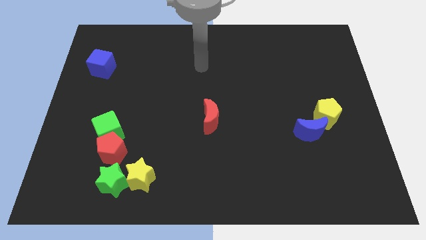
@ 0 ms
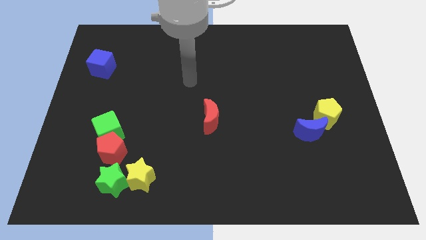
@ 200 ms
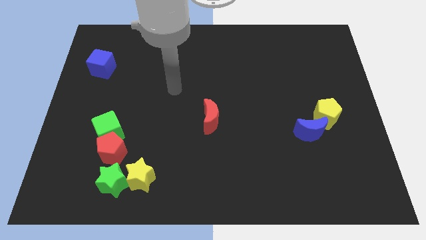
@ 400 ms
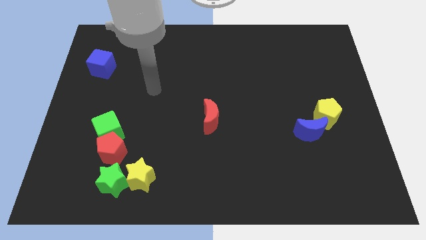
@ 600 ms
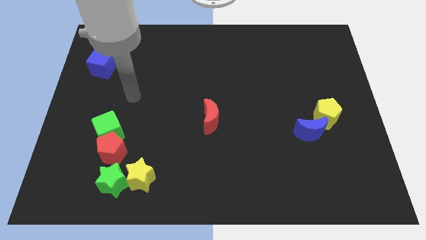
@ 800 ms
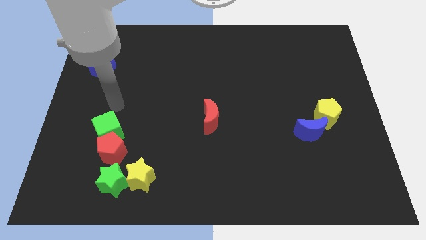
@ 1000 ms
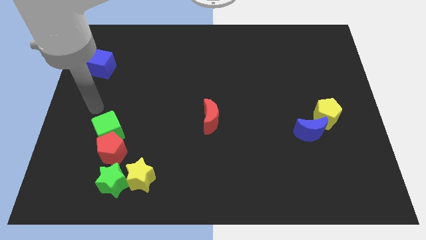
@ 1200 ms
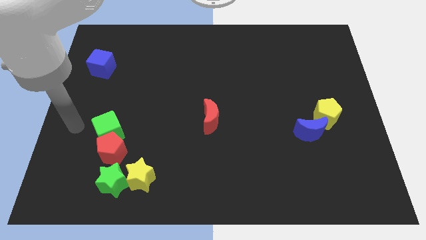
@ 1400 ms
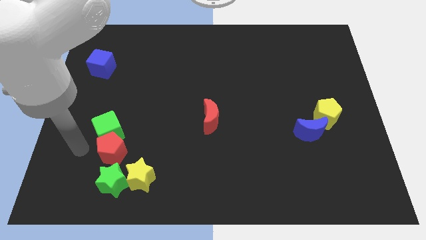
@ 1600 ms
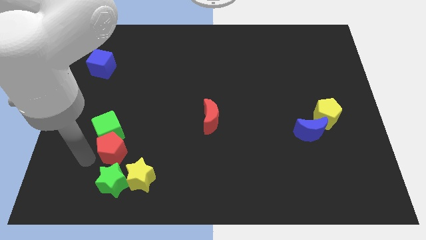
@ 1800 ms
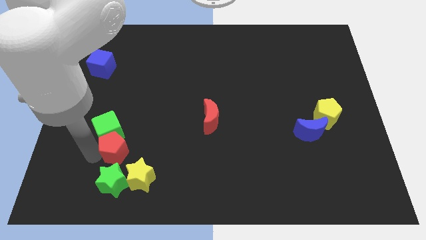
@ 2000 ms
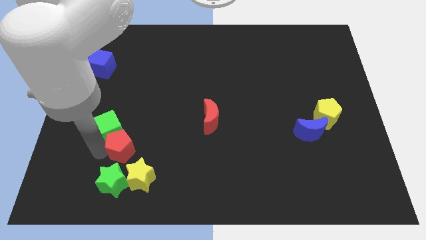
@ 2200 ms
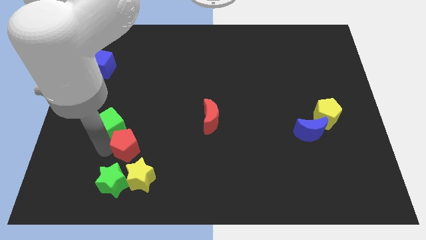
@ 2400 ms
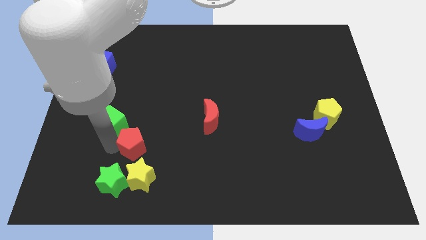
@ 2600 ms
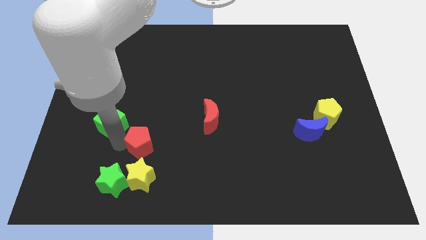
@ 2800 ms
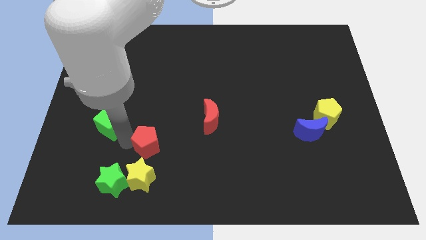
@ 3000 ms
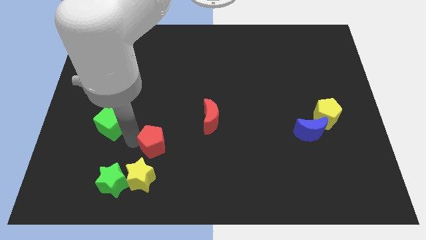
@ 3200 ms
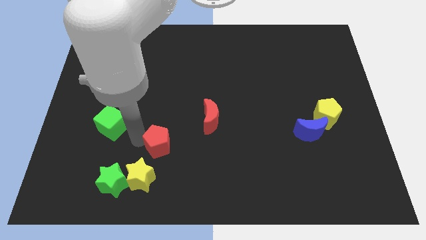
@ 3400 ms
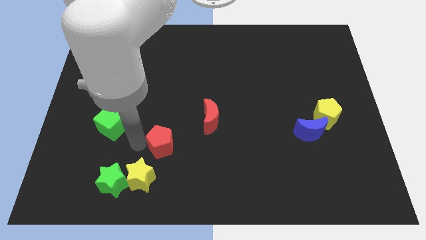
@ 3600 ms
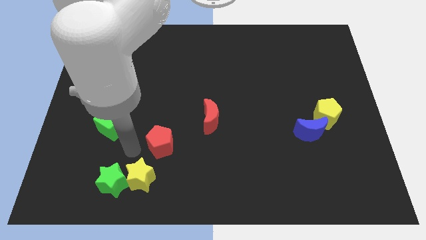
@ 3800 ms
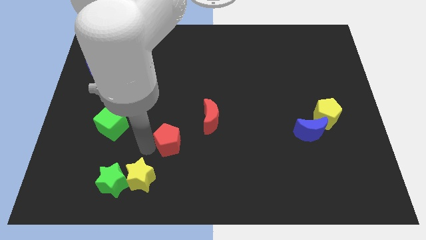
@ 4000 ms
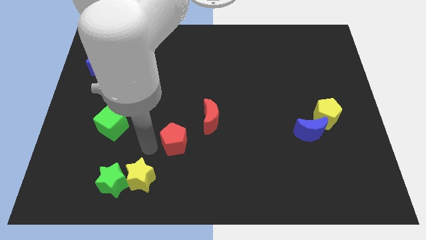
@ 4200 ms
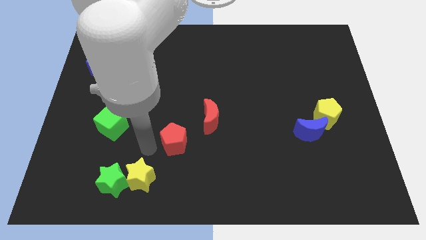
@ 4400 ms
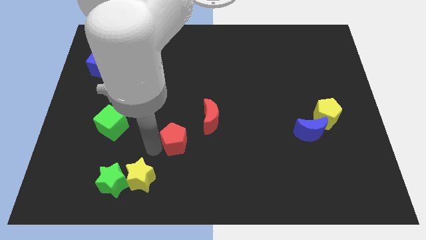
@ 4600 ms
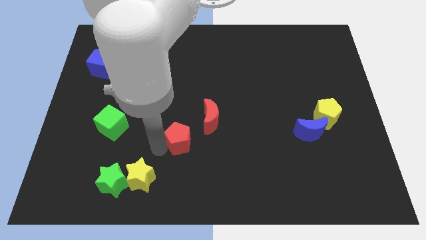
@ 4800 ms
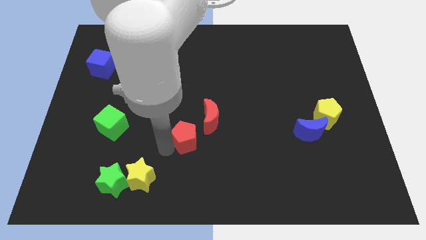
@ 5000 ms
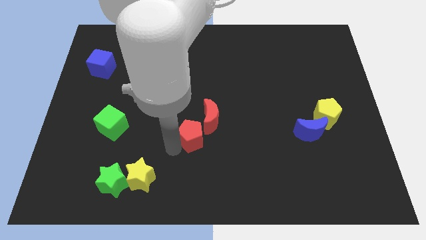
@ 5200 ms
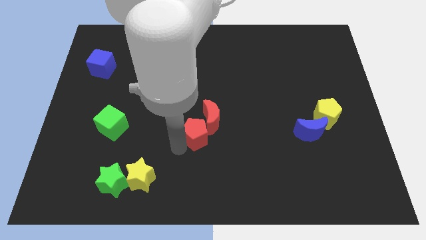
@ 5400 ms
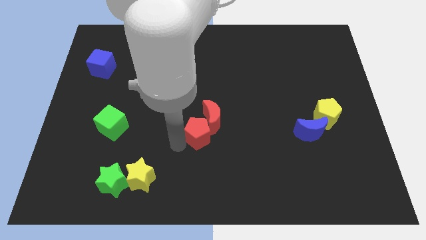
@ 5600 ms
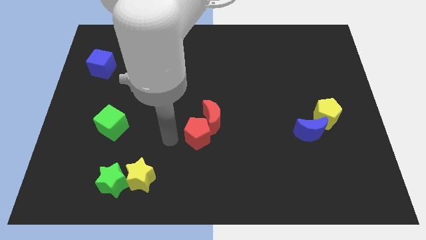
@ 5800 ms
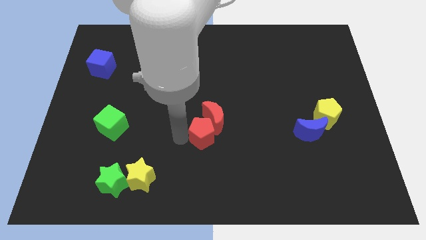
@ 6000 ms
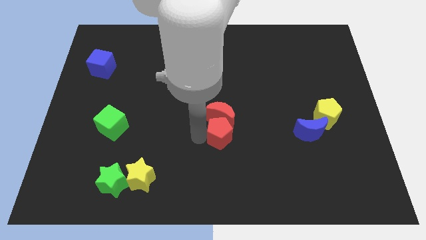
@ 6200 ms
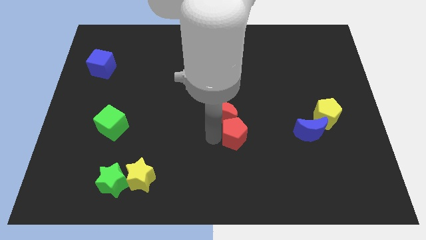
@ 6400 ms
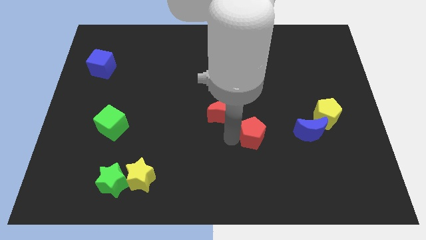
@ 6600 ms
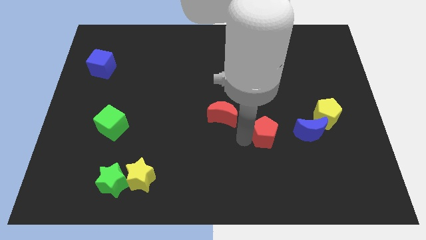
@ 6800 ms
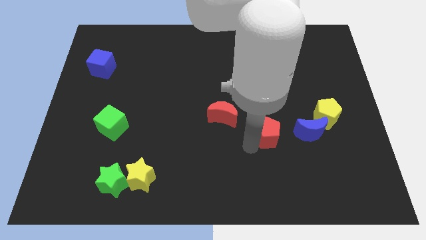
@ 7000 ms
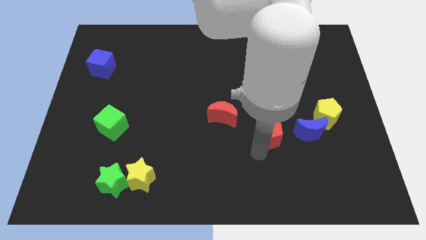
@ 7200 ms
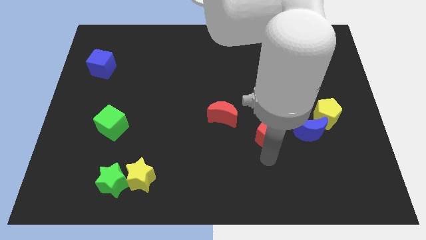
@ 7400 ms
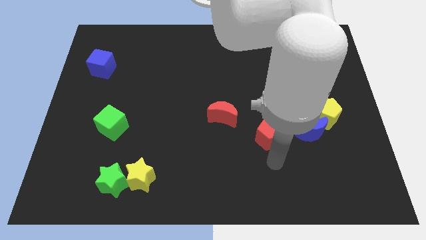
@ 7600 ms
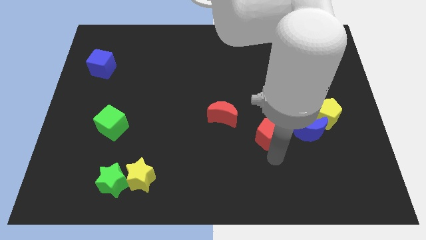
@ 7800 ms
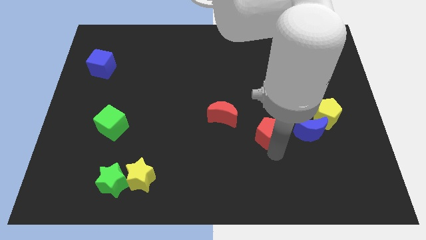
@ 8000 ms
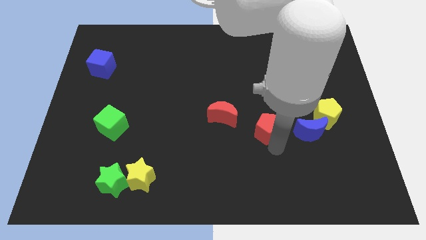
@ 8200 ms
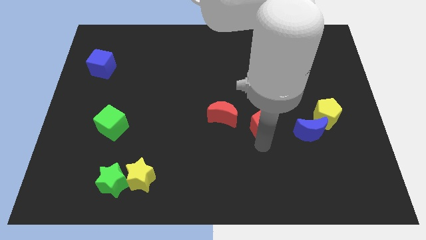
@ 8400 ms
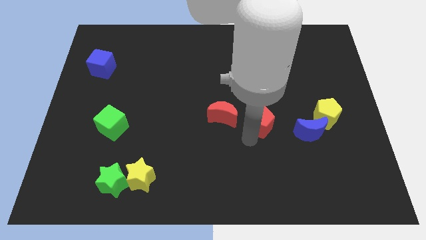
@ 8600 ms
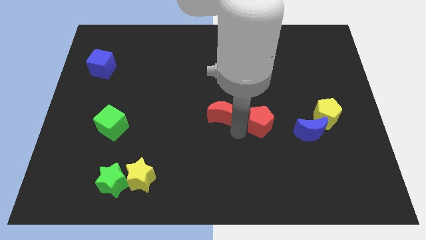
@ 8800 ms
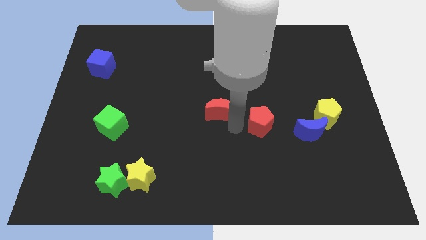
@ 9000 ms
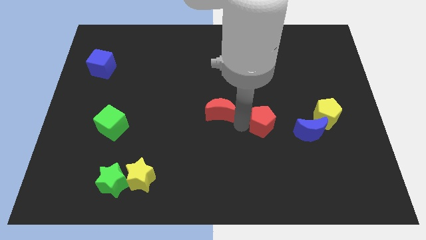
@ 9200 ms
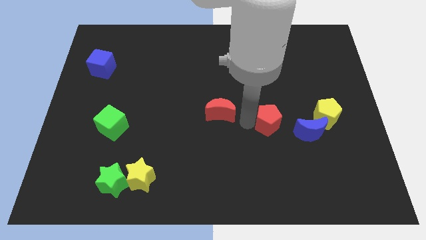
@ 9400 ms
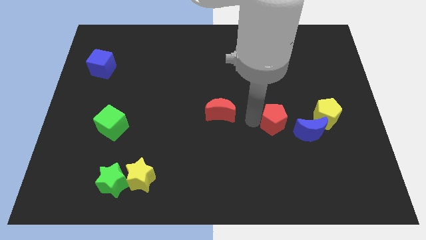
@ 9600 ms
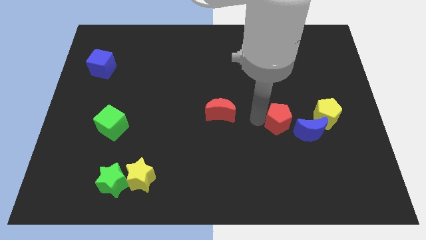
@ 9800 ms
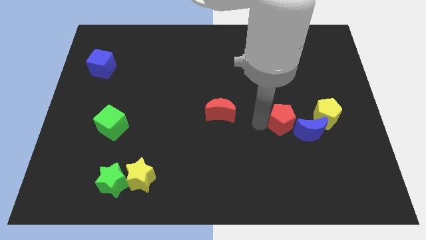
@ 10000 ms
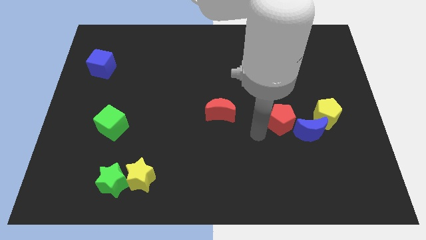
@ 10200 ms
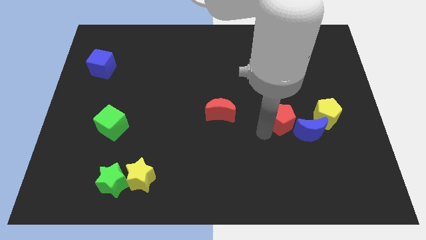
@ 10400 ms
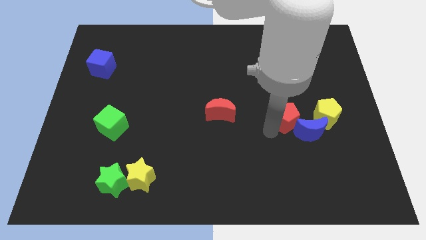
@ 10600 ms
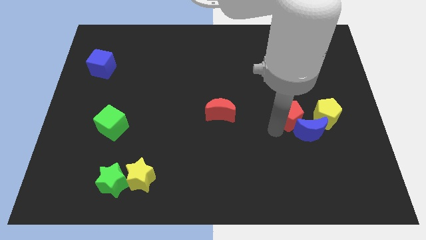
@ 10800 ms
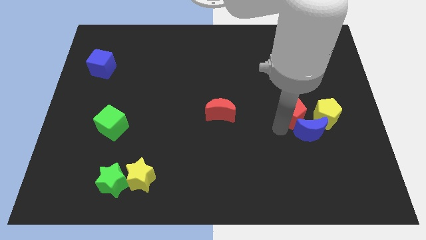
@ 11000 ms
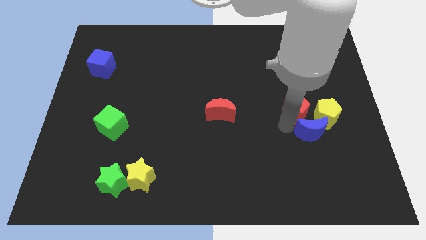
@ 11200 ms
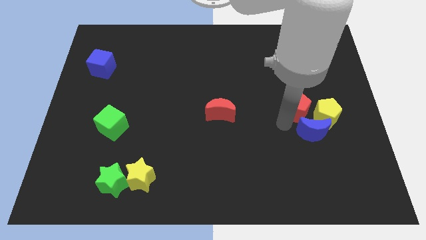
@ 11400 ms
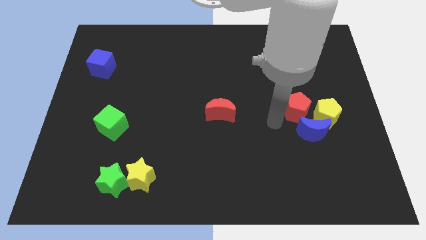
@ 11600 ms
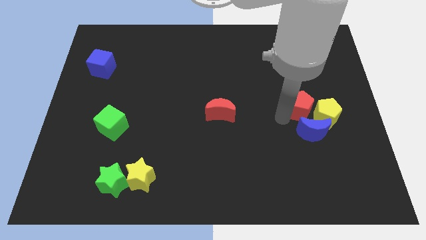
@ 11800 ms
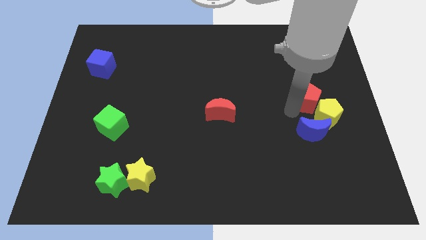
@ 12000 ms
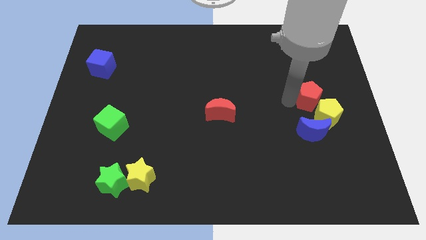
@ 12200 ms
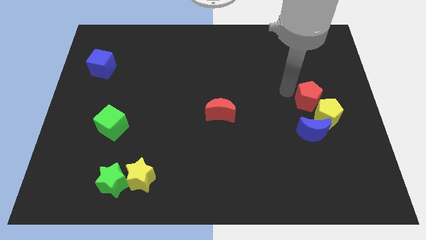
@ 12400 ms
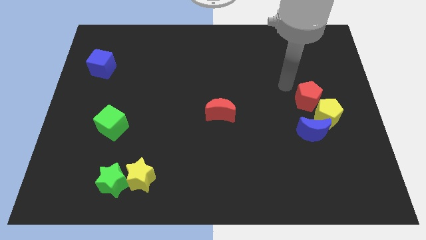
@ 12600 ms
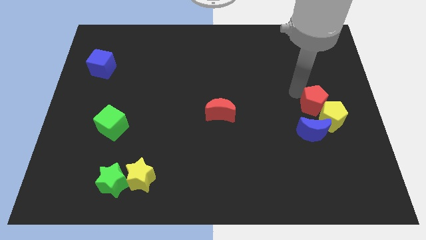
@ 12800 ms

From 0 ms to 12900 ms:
move the red pentagon to the top right side of the blue moon
